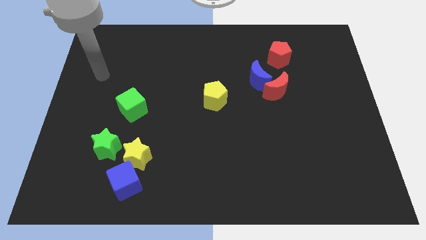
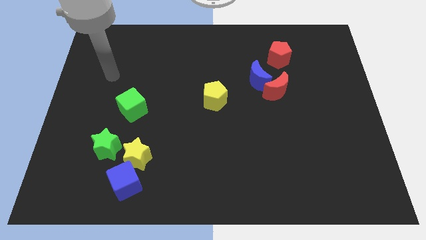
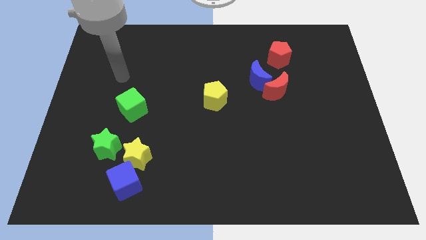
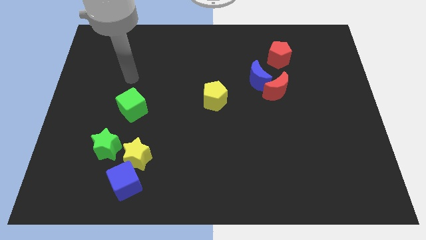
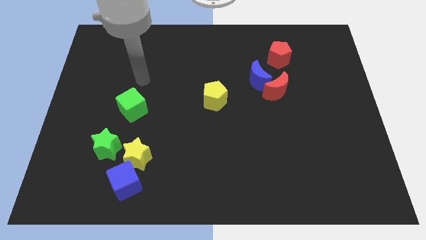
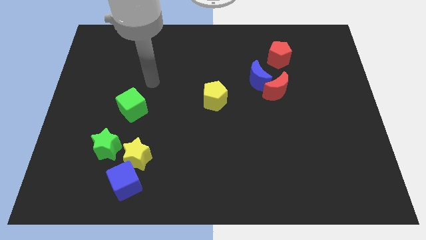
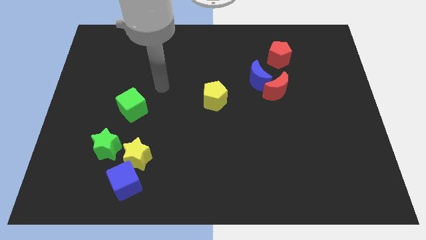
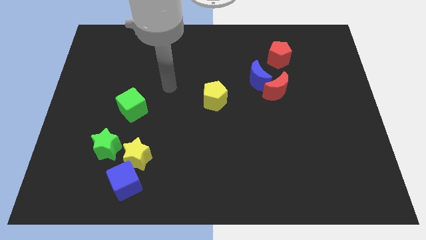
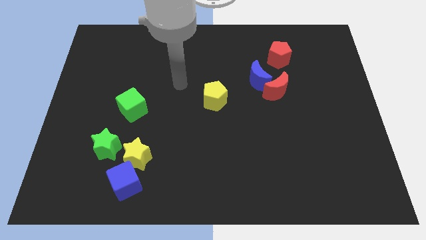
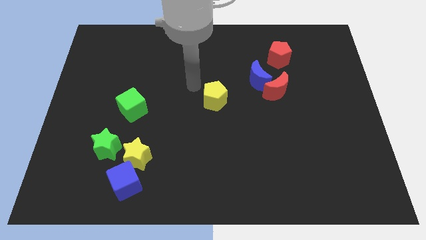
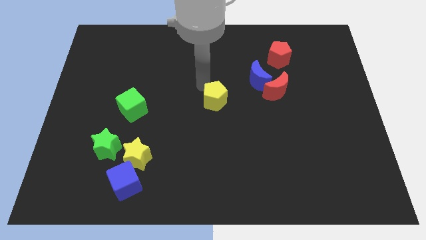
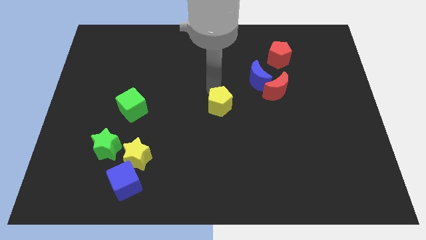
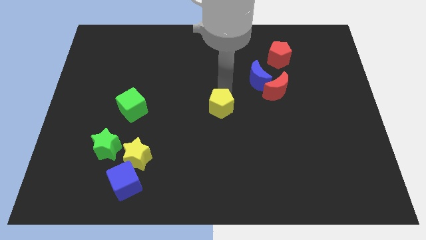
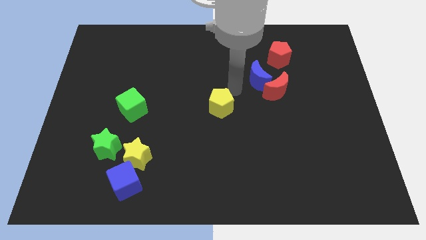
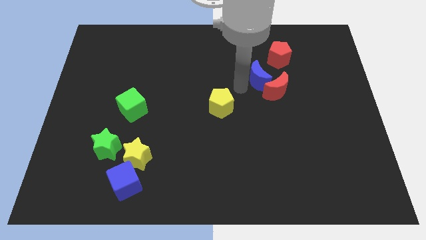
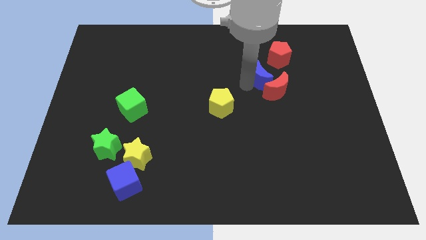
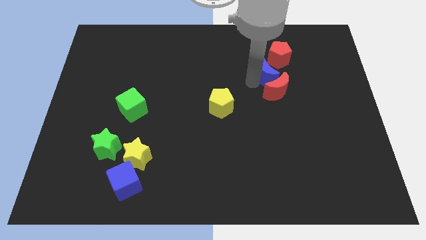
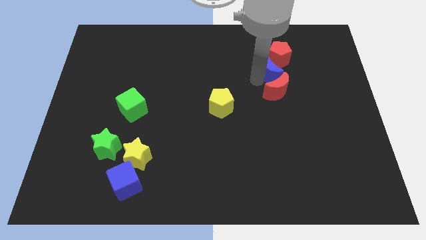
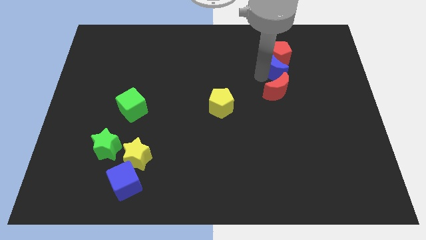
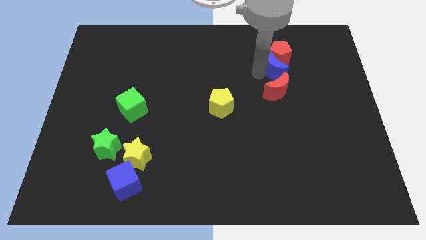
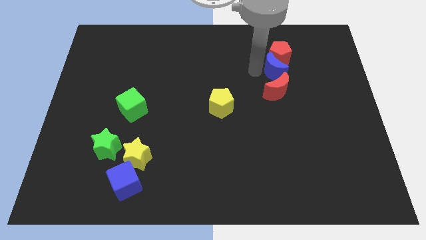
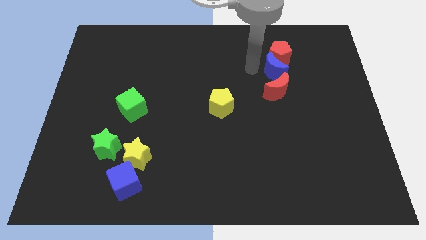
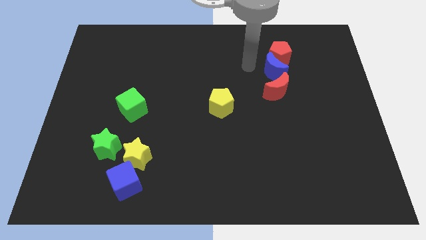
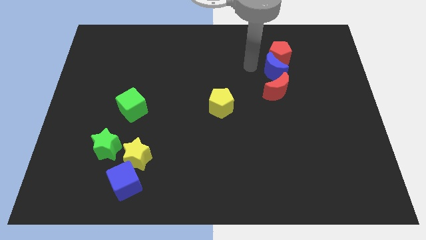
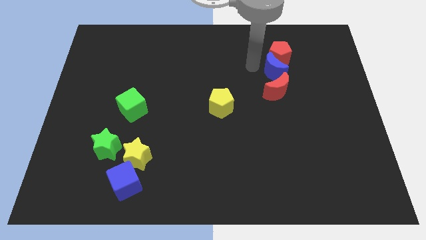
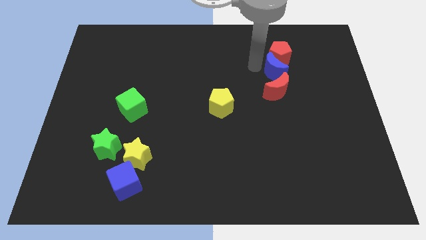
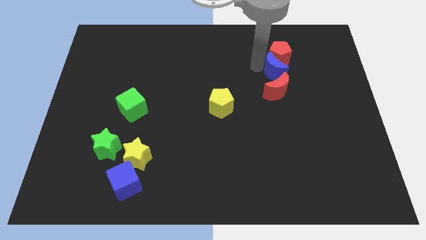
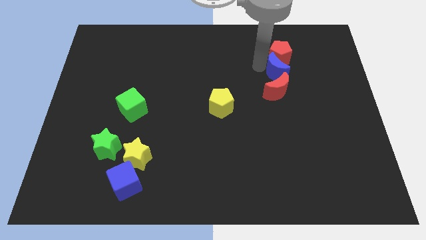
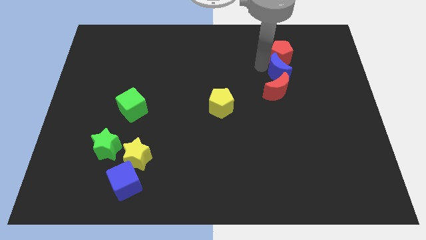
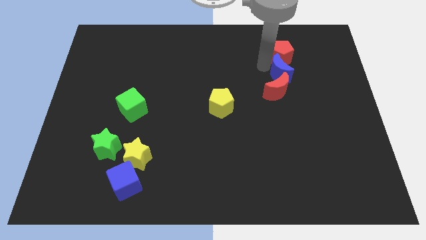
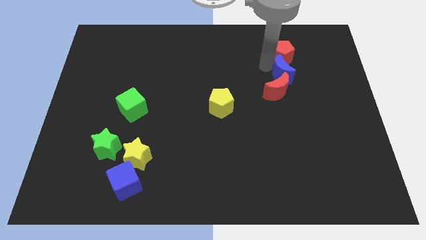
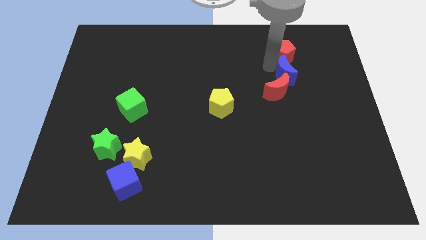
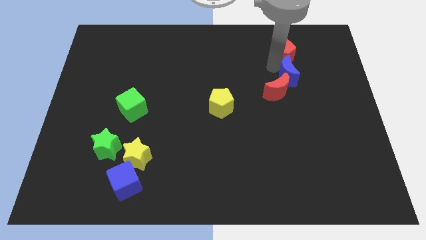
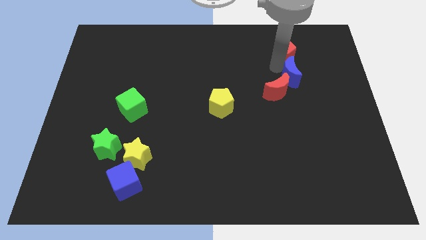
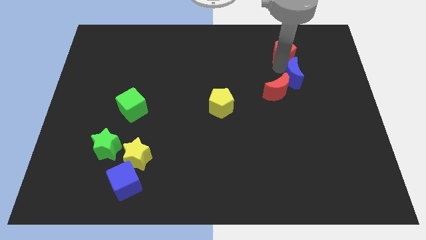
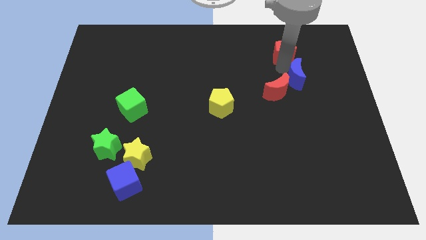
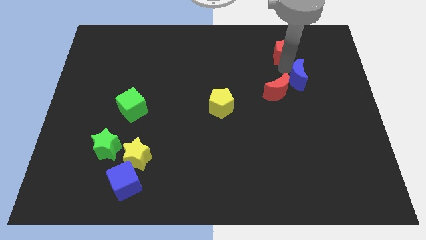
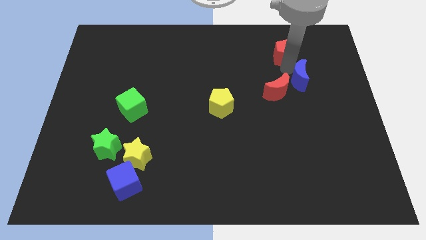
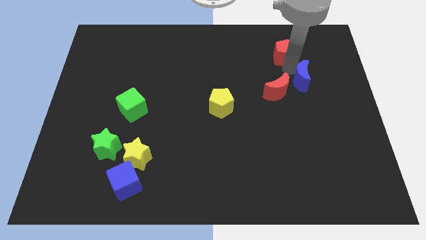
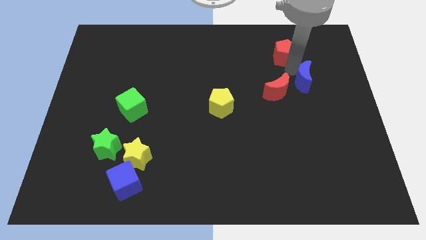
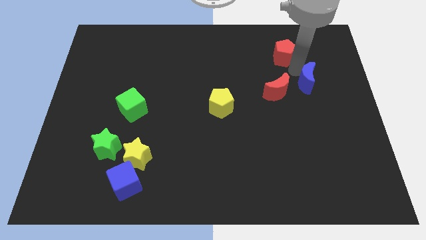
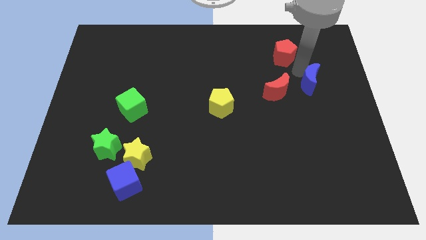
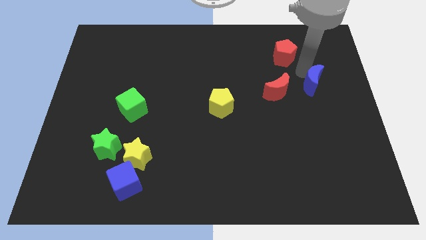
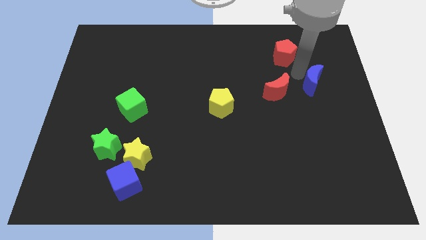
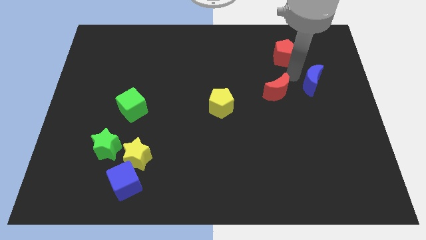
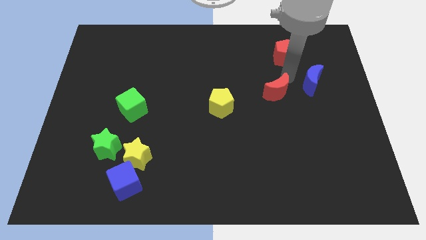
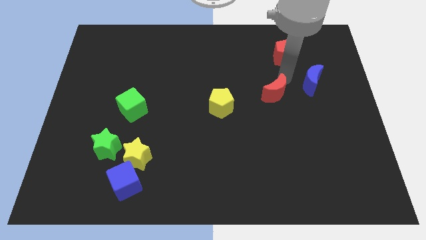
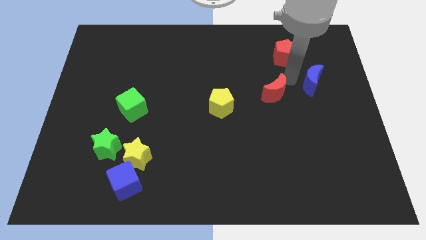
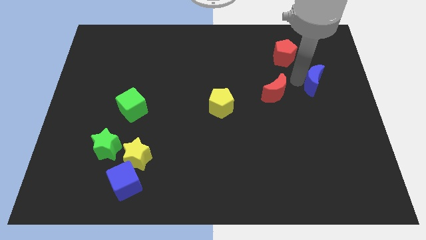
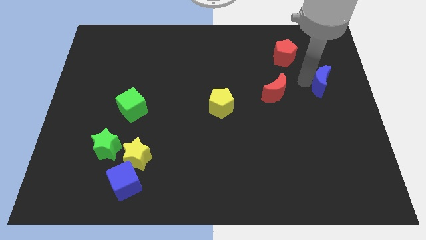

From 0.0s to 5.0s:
put the blue moon to the right side

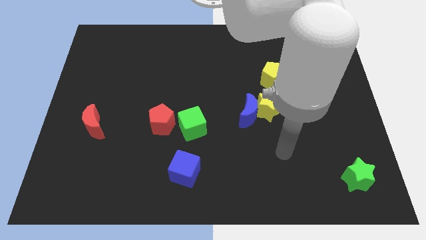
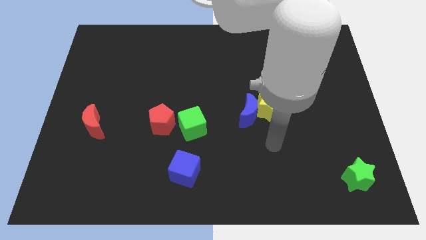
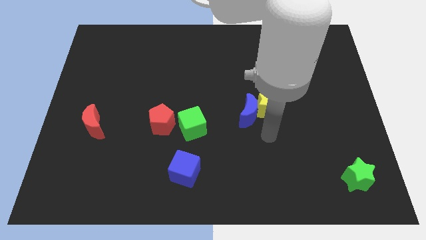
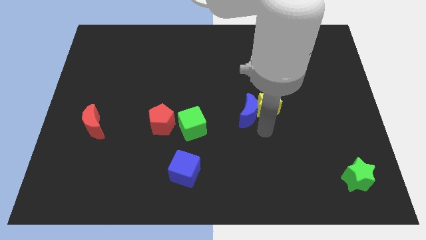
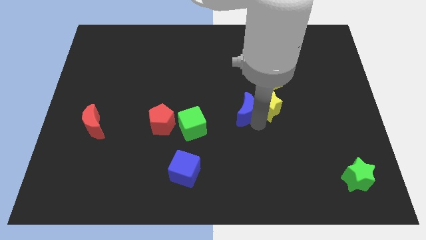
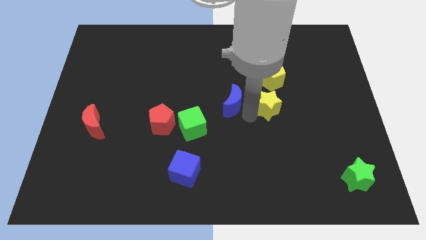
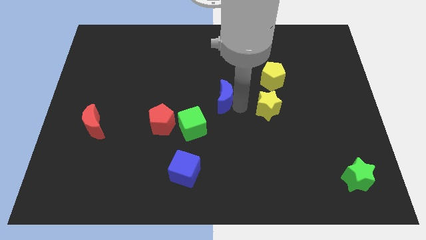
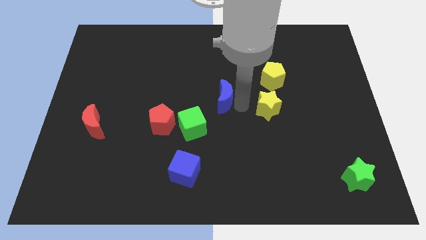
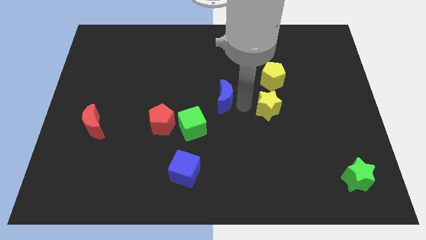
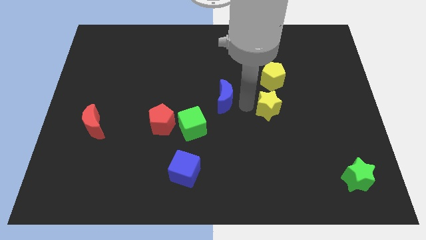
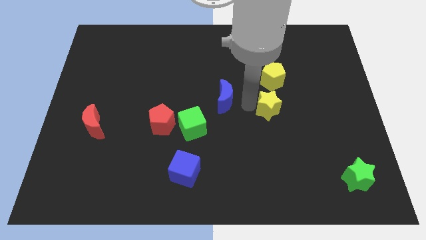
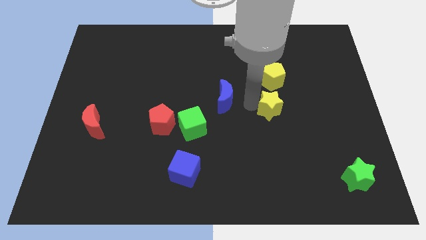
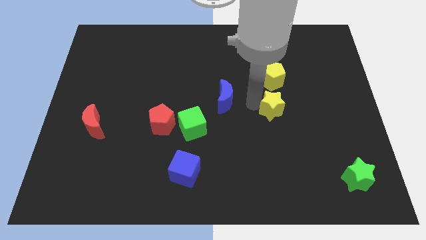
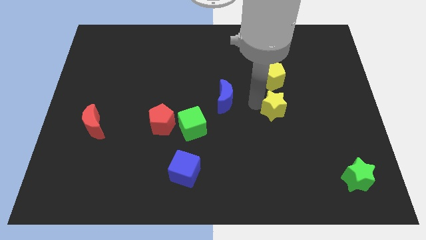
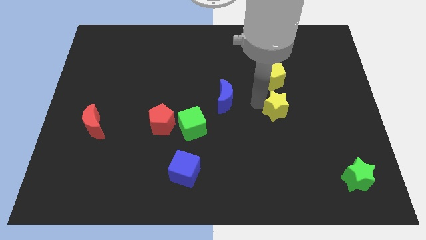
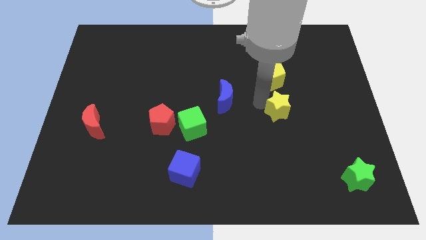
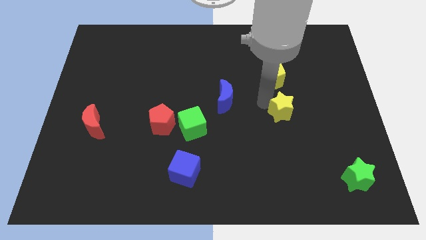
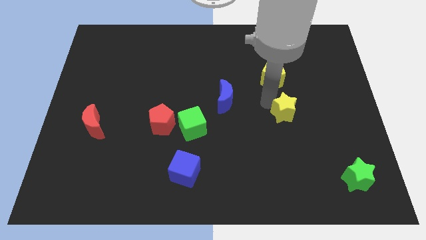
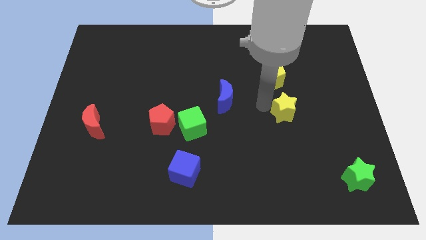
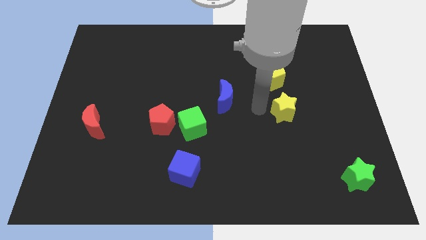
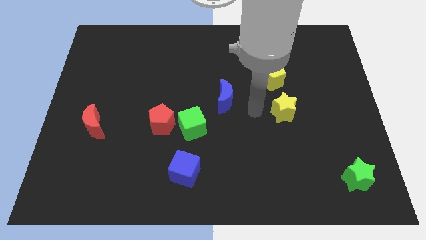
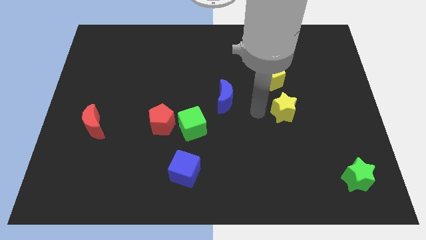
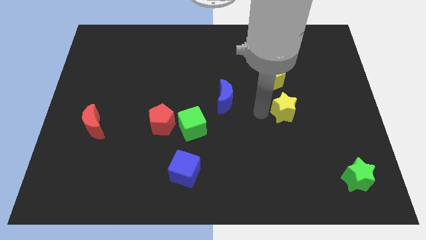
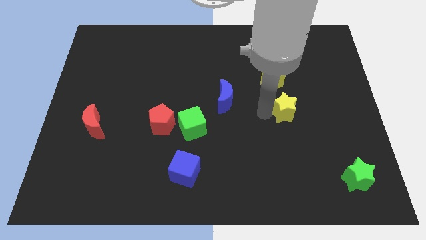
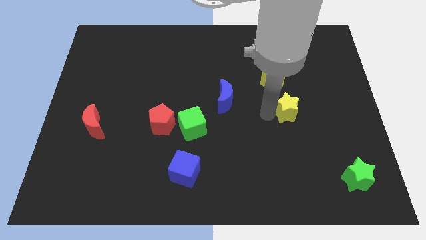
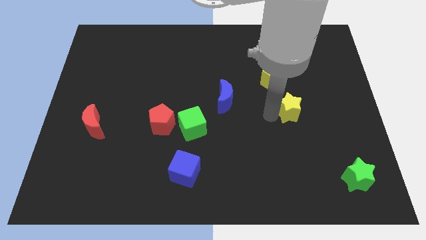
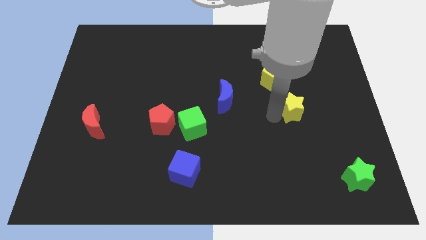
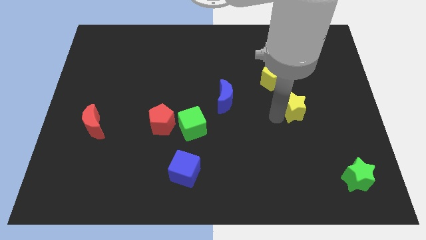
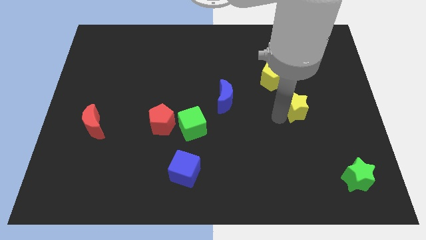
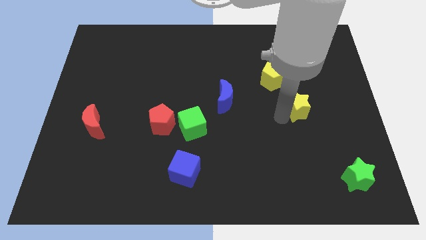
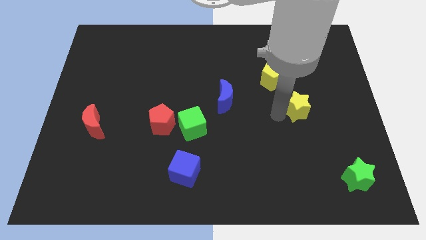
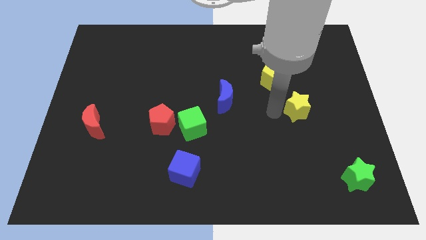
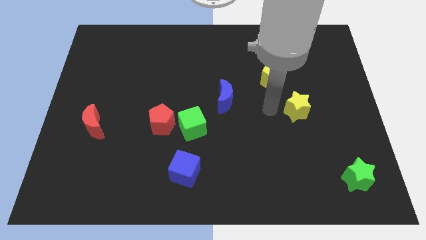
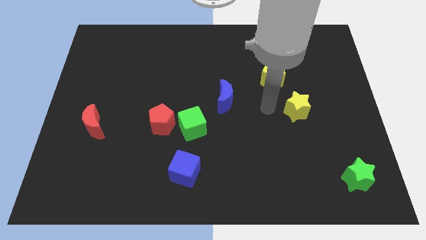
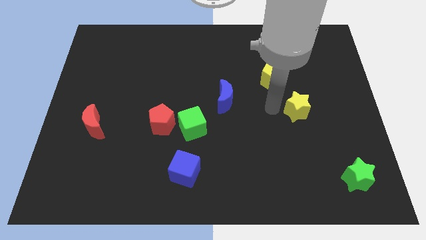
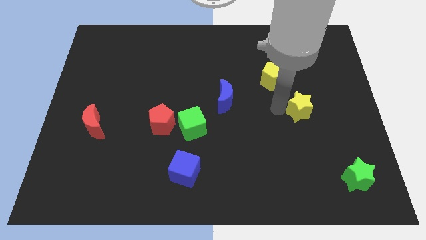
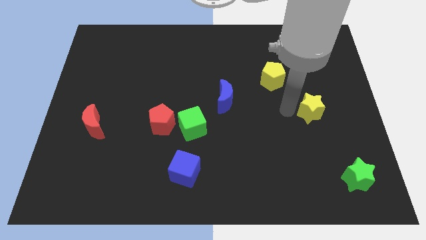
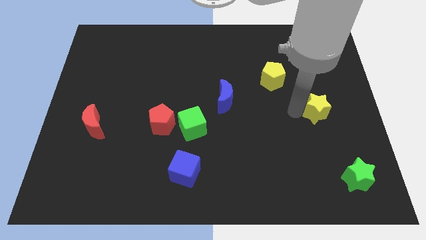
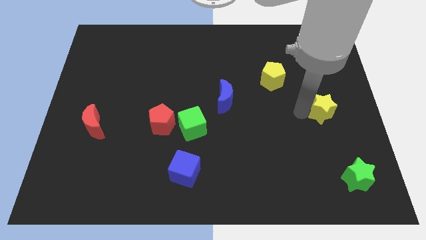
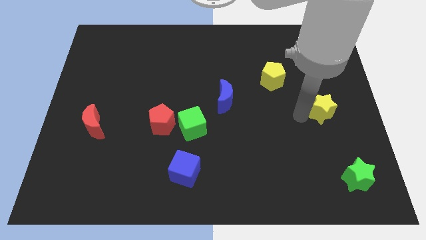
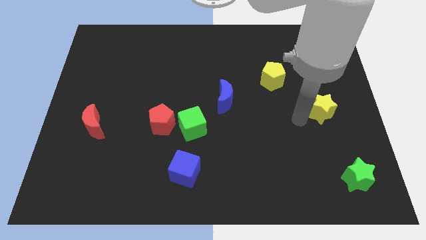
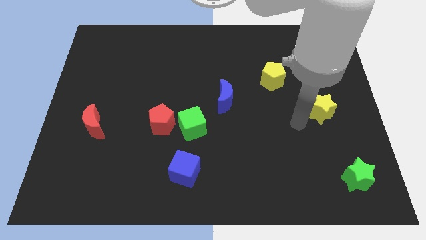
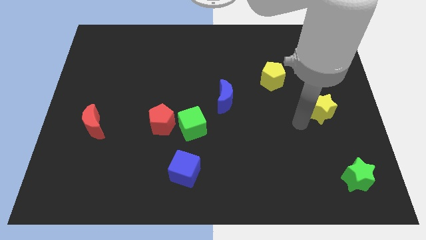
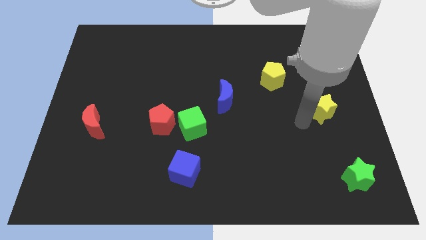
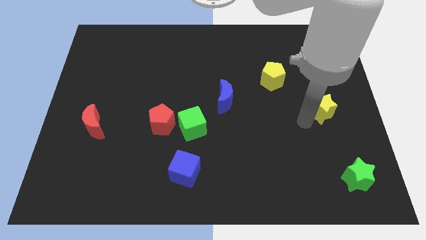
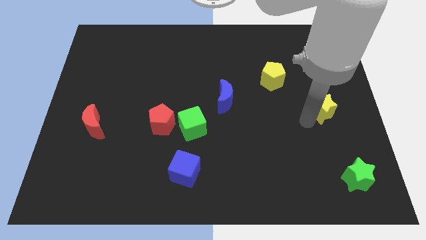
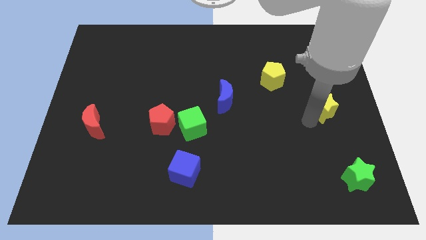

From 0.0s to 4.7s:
move the yellow star to the center right
